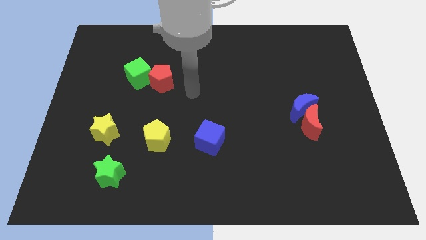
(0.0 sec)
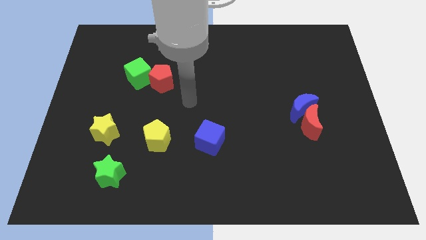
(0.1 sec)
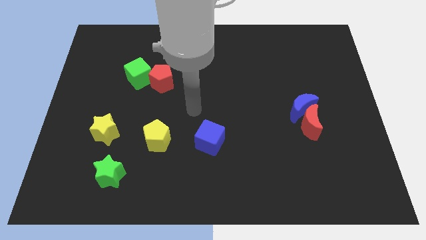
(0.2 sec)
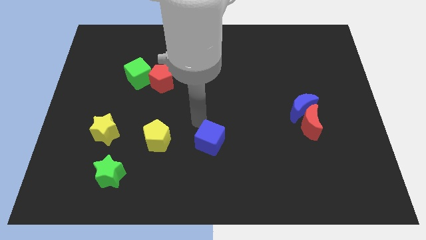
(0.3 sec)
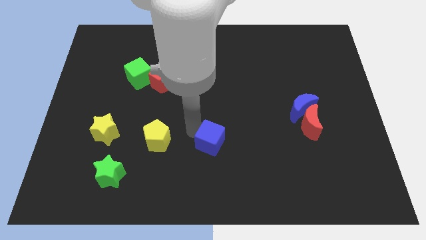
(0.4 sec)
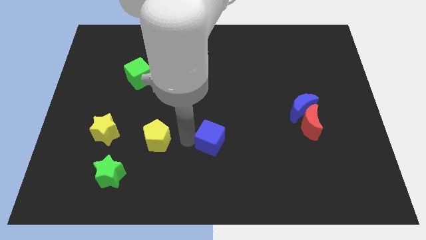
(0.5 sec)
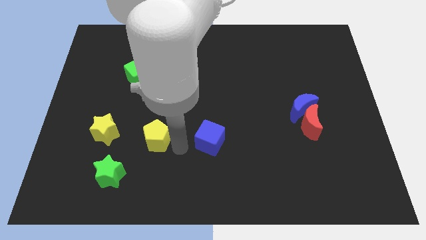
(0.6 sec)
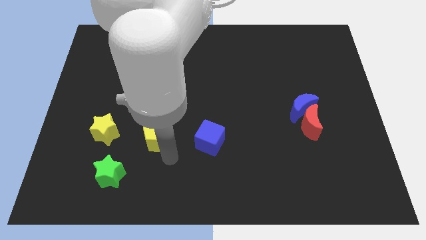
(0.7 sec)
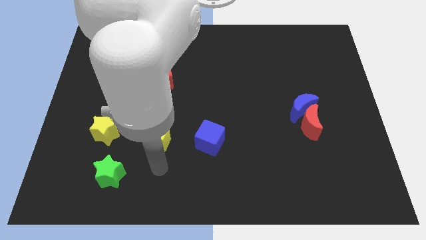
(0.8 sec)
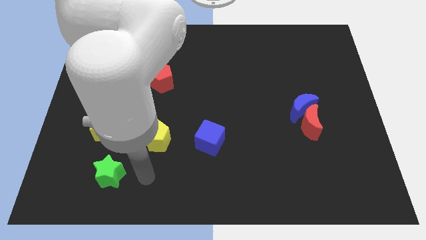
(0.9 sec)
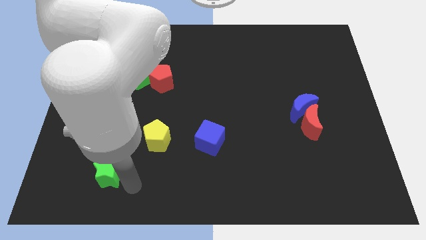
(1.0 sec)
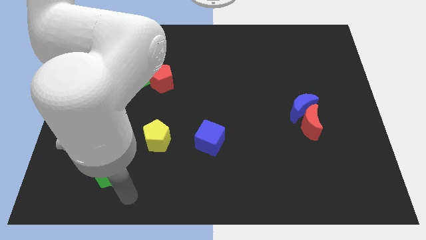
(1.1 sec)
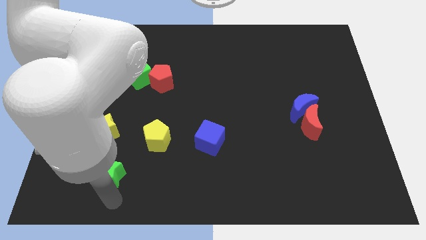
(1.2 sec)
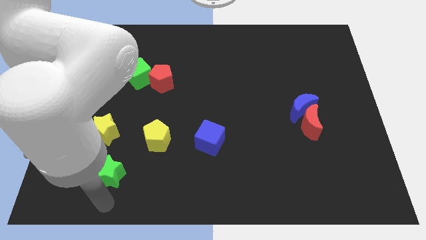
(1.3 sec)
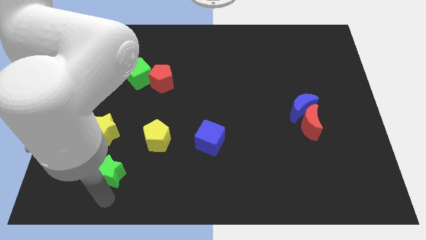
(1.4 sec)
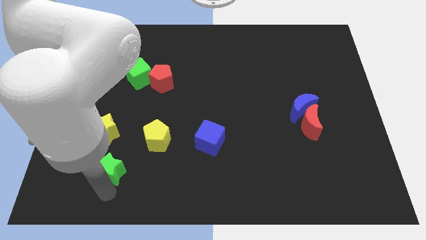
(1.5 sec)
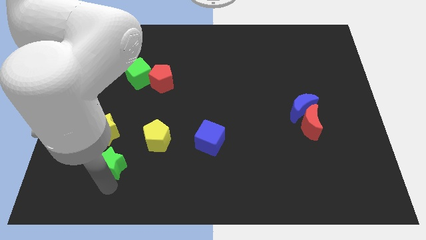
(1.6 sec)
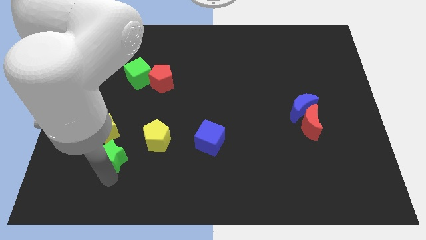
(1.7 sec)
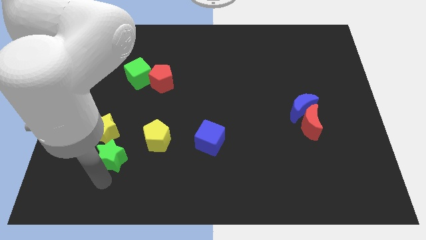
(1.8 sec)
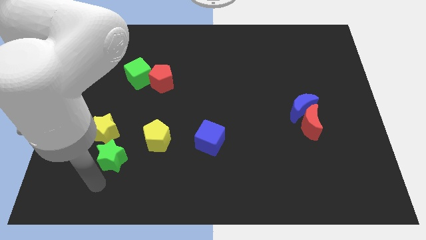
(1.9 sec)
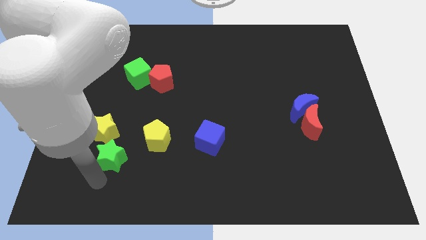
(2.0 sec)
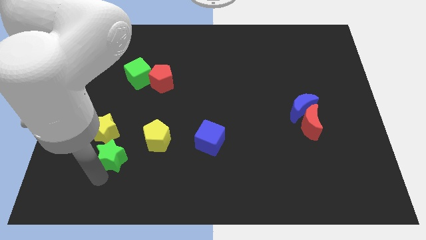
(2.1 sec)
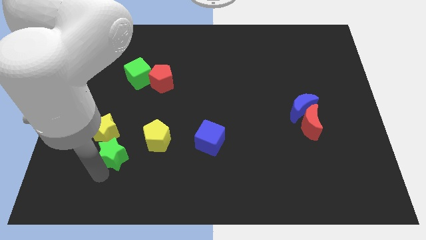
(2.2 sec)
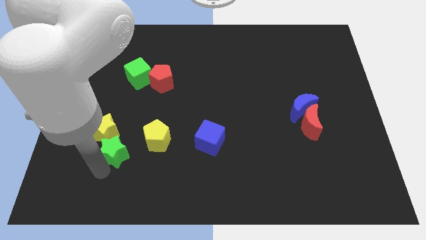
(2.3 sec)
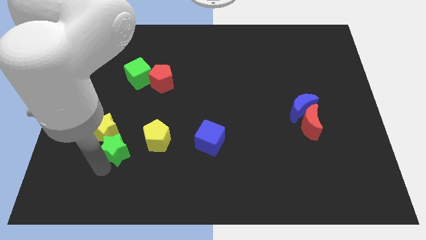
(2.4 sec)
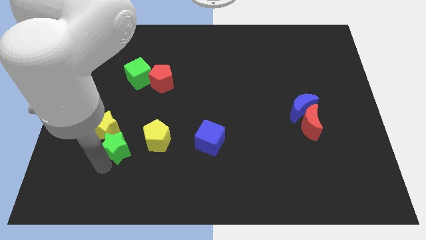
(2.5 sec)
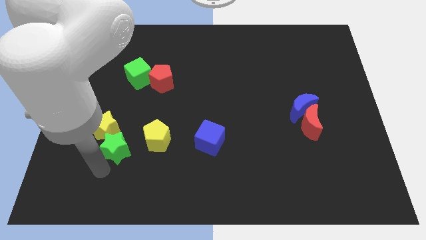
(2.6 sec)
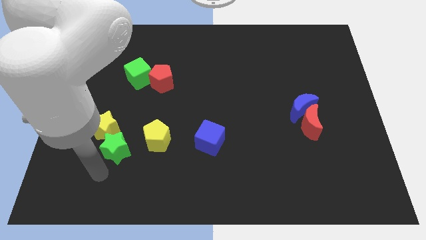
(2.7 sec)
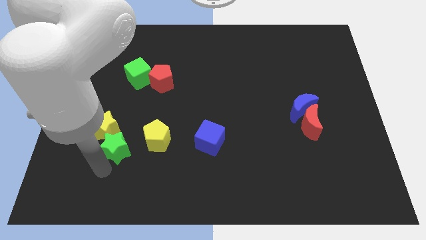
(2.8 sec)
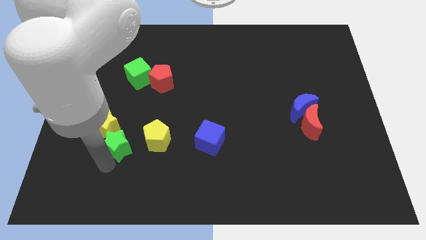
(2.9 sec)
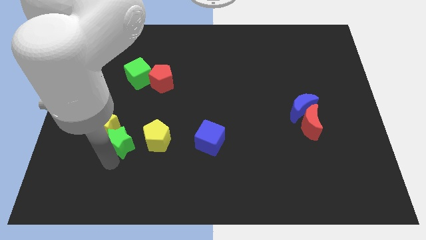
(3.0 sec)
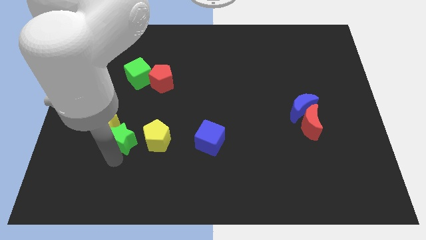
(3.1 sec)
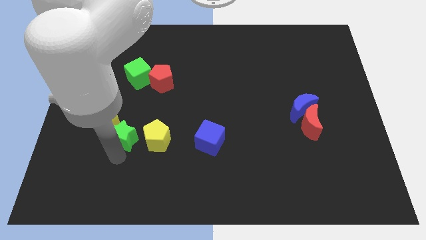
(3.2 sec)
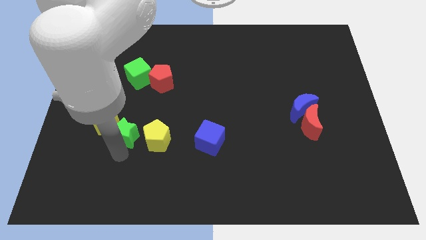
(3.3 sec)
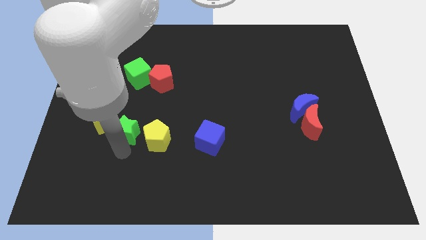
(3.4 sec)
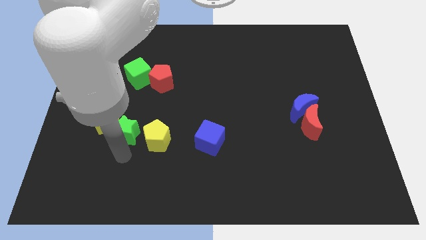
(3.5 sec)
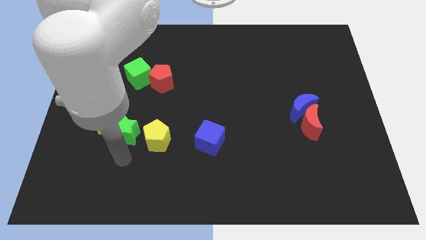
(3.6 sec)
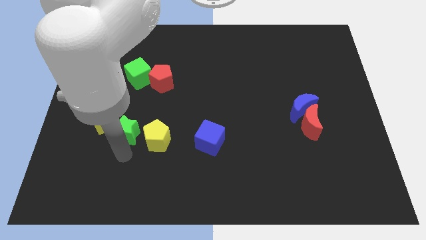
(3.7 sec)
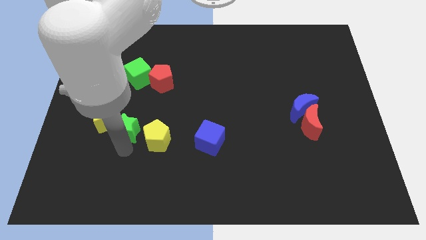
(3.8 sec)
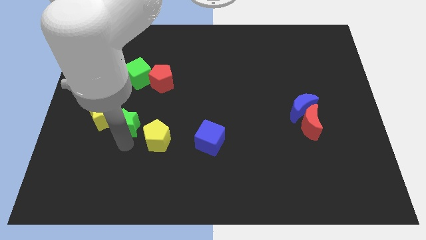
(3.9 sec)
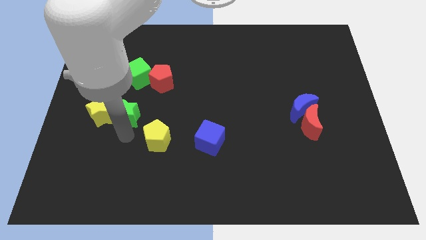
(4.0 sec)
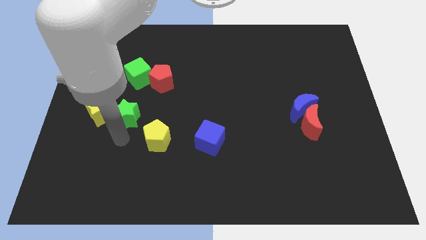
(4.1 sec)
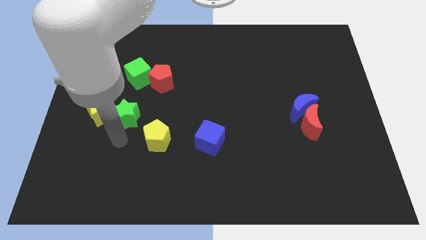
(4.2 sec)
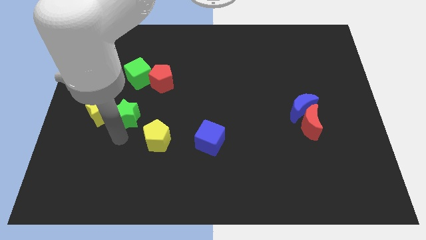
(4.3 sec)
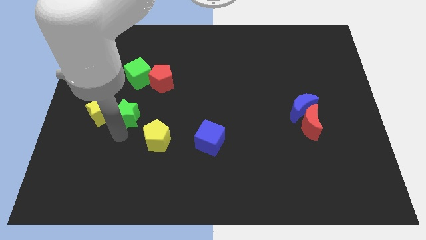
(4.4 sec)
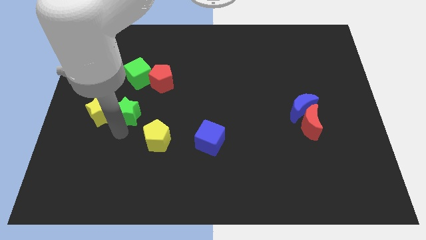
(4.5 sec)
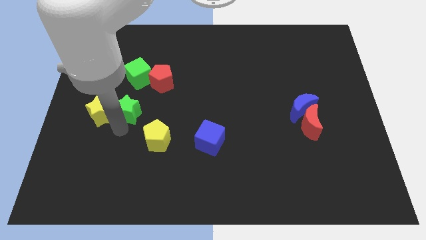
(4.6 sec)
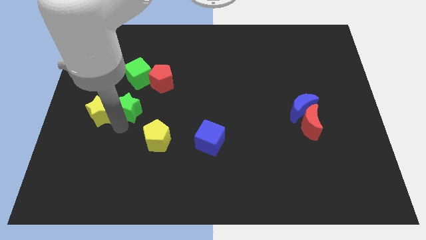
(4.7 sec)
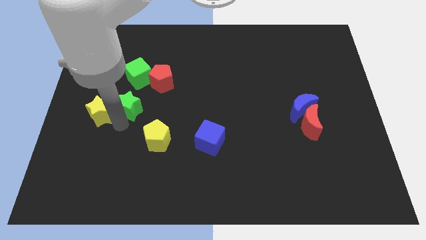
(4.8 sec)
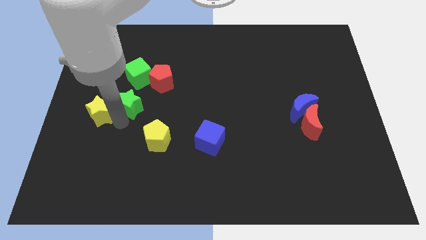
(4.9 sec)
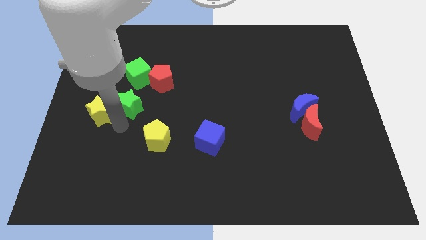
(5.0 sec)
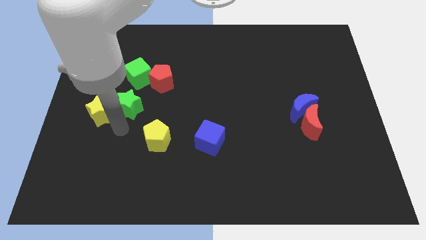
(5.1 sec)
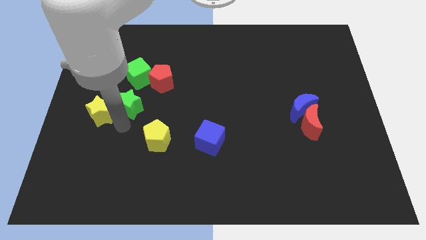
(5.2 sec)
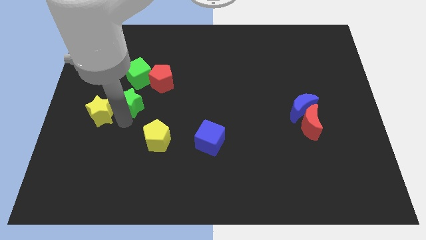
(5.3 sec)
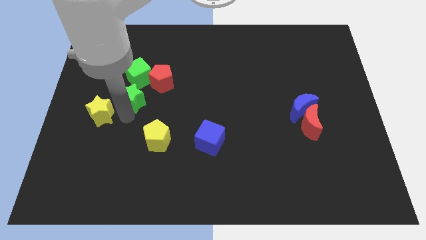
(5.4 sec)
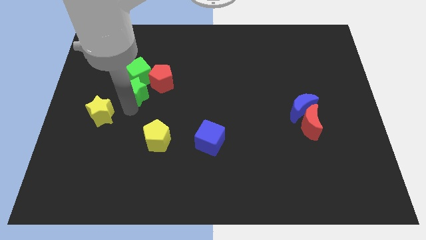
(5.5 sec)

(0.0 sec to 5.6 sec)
move the green star towards the green cube

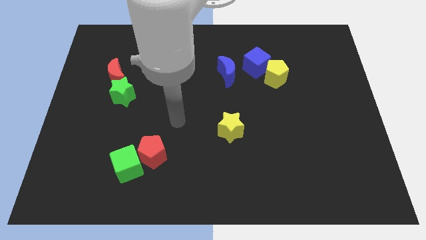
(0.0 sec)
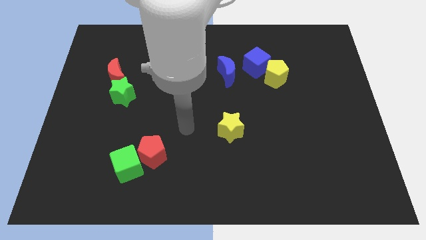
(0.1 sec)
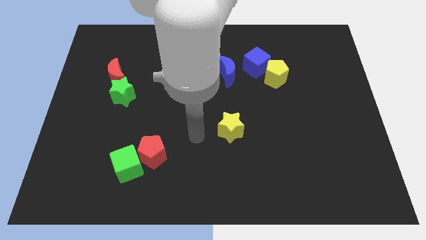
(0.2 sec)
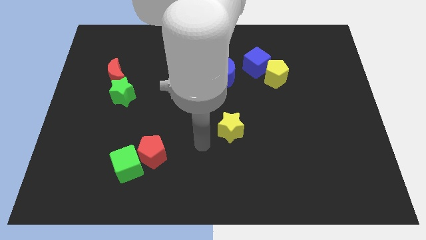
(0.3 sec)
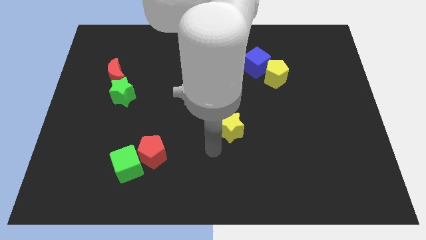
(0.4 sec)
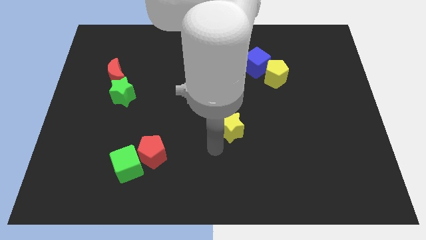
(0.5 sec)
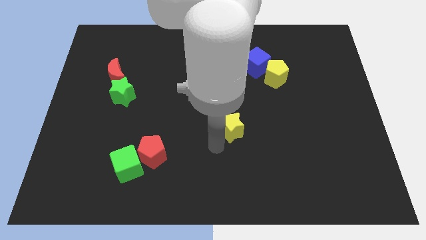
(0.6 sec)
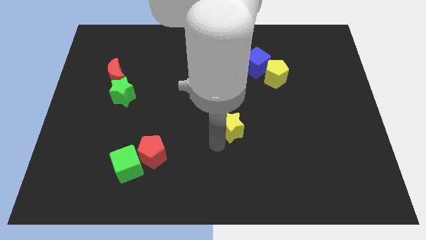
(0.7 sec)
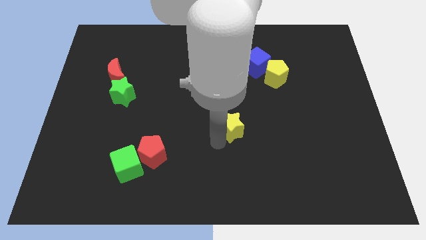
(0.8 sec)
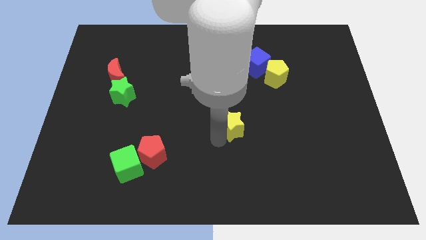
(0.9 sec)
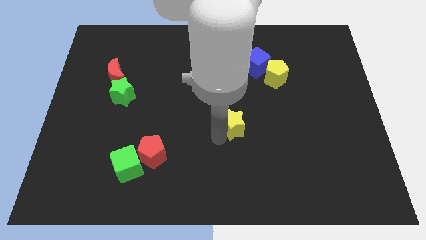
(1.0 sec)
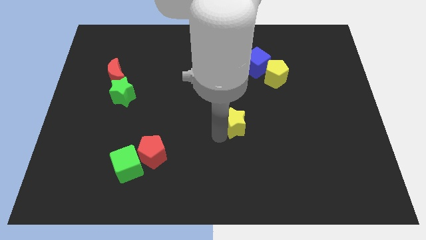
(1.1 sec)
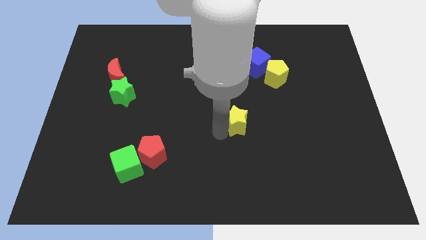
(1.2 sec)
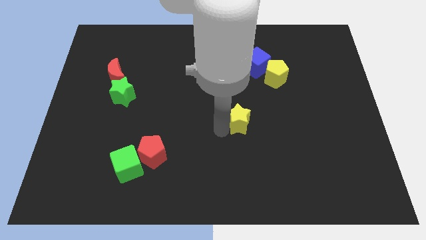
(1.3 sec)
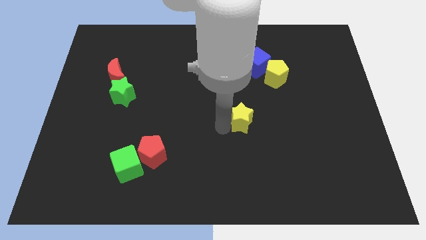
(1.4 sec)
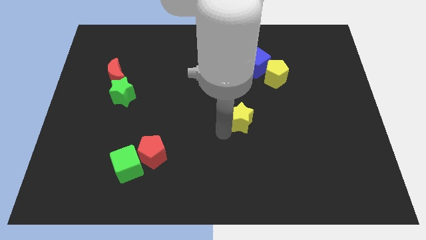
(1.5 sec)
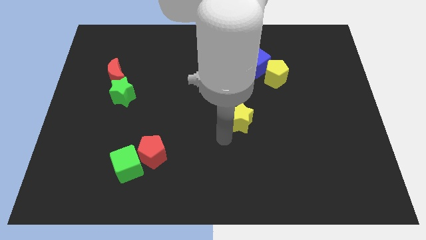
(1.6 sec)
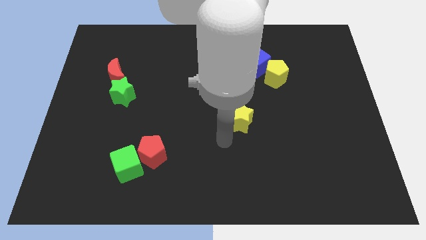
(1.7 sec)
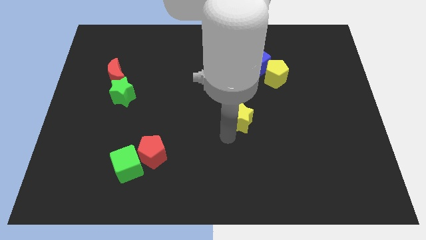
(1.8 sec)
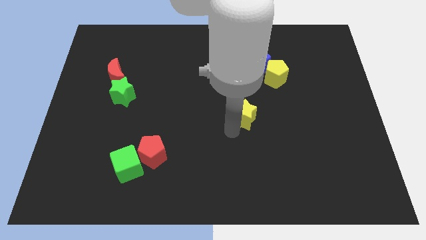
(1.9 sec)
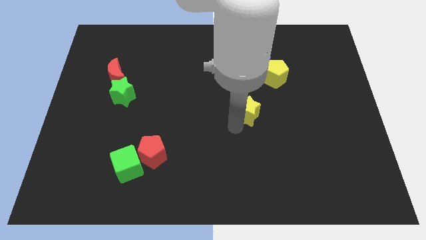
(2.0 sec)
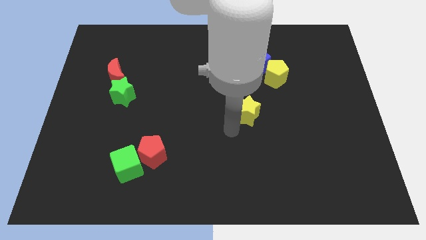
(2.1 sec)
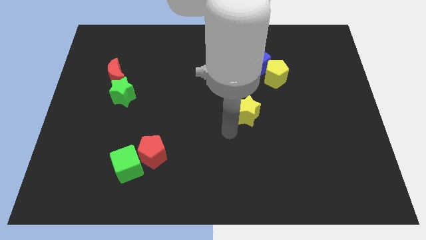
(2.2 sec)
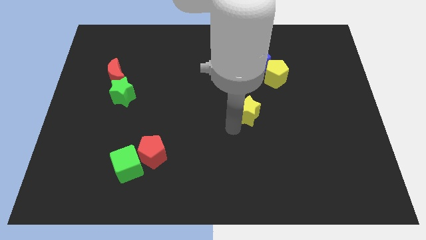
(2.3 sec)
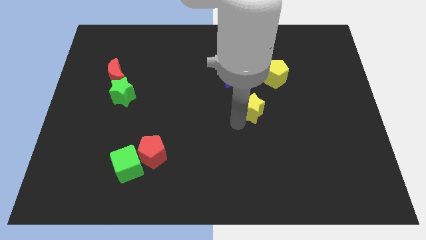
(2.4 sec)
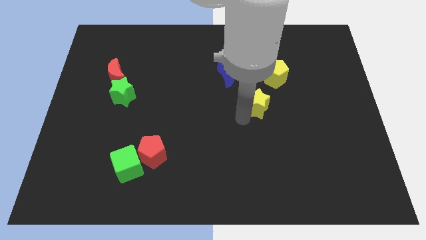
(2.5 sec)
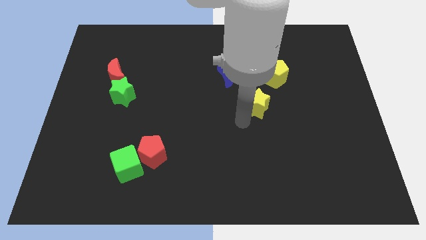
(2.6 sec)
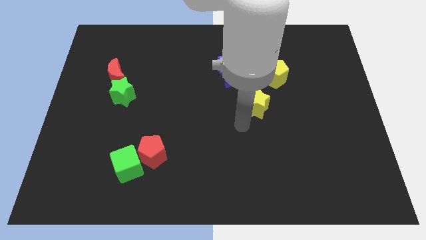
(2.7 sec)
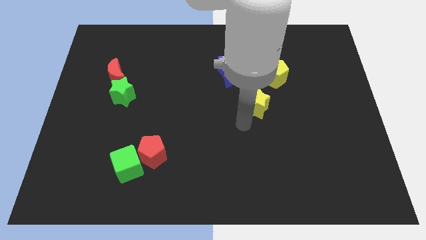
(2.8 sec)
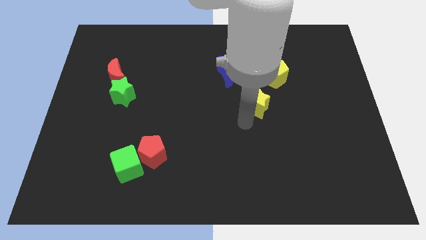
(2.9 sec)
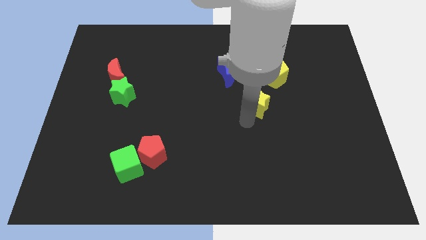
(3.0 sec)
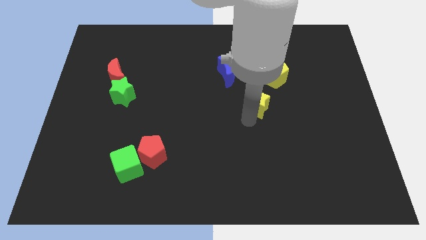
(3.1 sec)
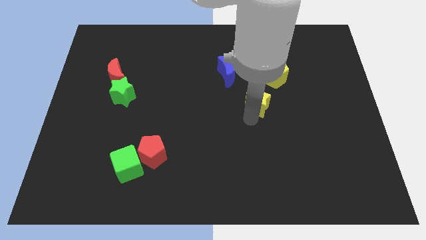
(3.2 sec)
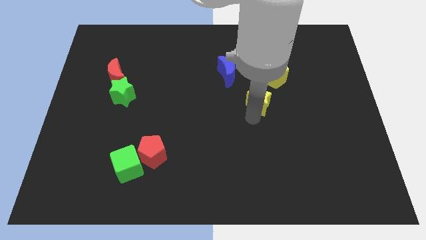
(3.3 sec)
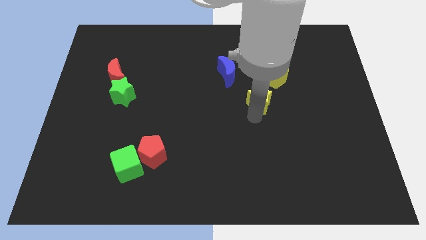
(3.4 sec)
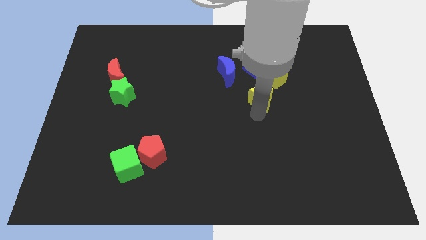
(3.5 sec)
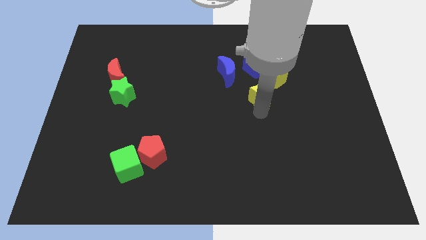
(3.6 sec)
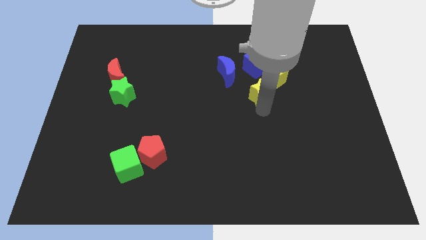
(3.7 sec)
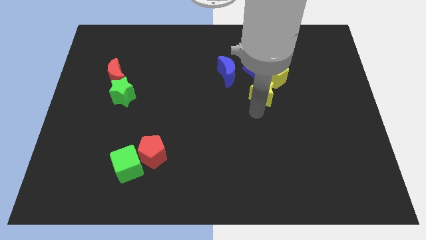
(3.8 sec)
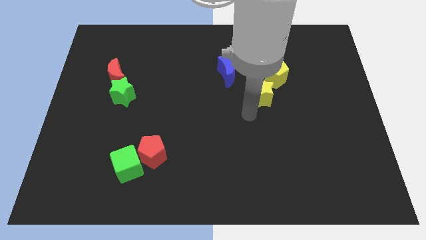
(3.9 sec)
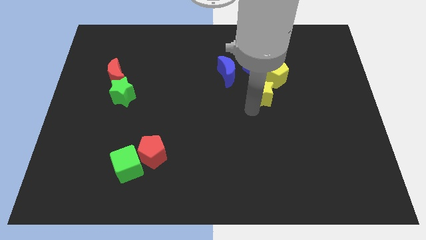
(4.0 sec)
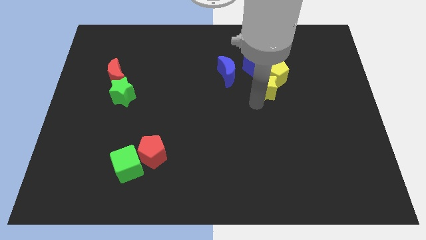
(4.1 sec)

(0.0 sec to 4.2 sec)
put the yellow star close to the yellow pentagon
